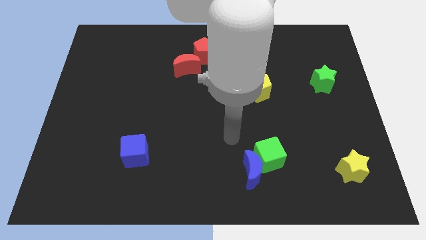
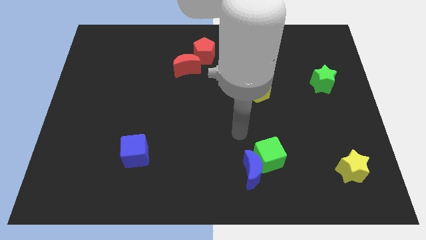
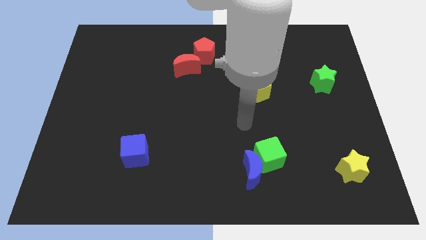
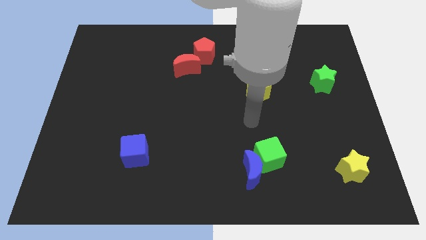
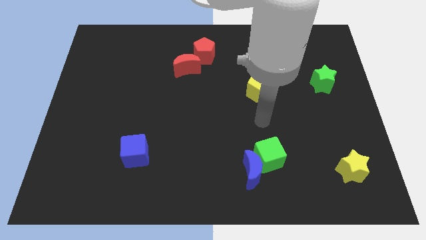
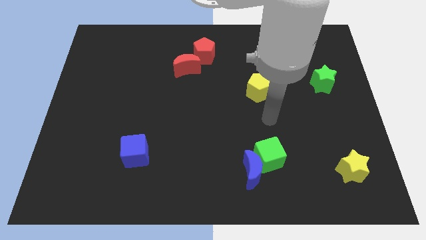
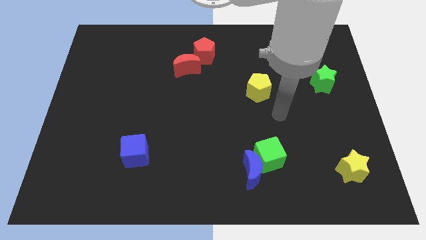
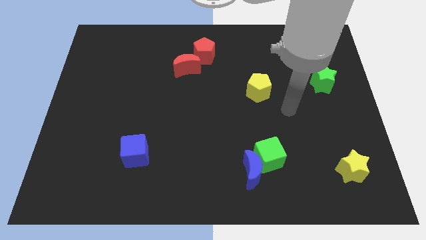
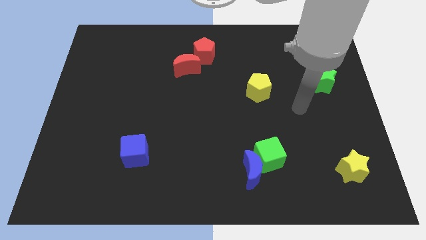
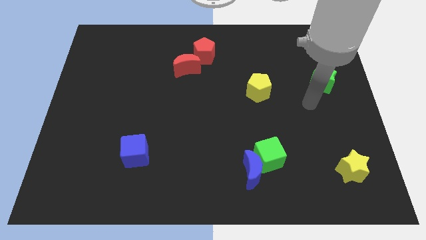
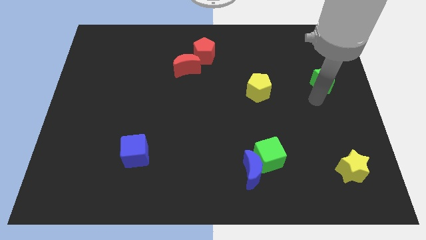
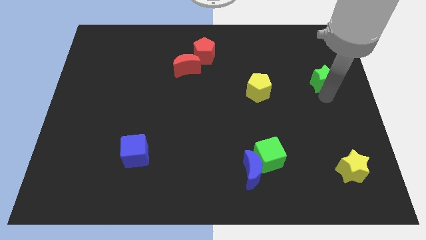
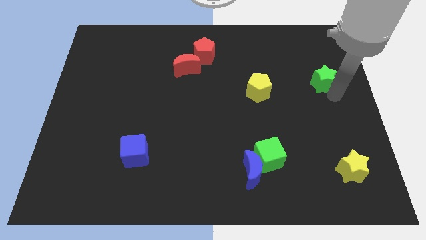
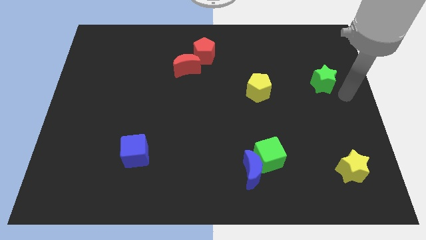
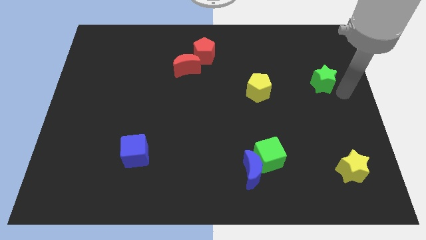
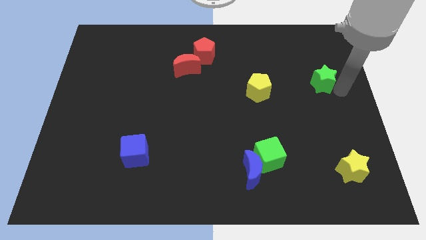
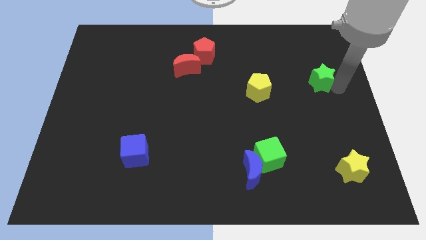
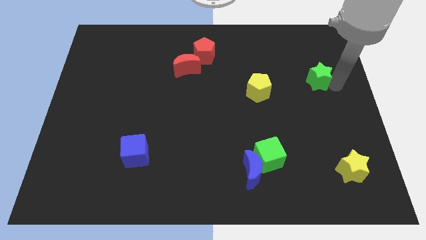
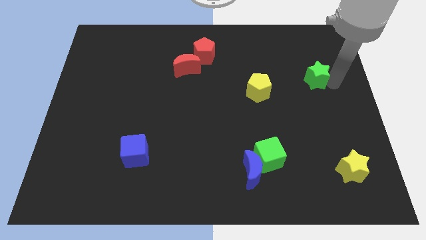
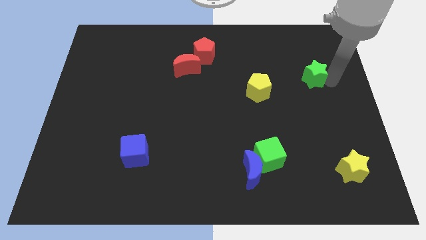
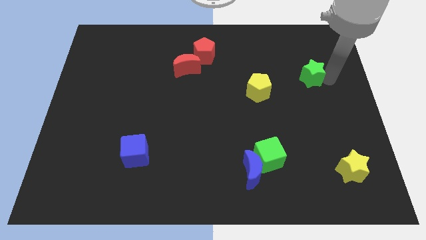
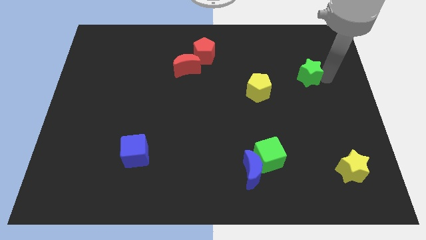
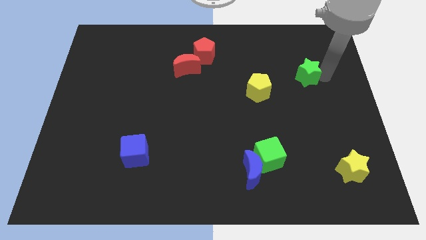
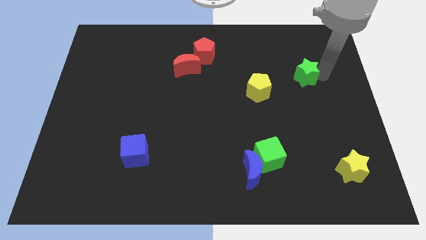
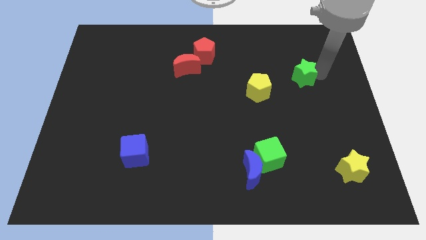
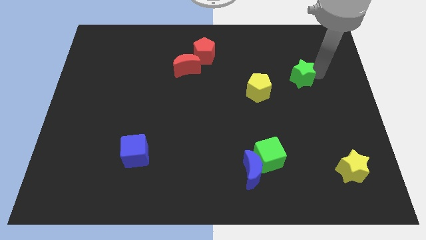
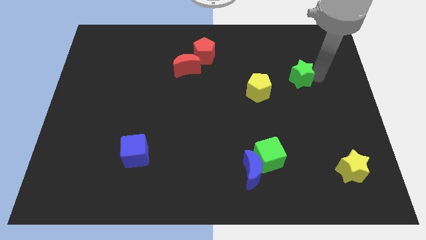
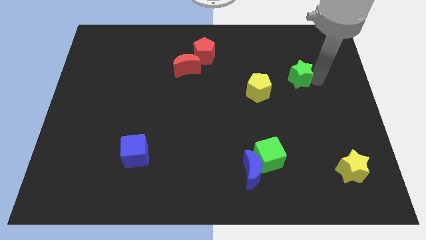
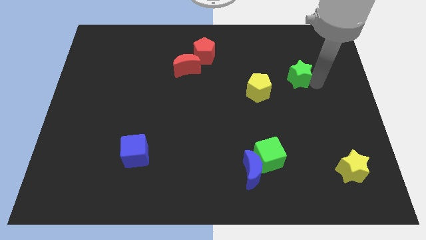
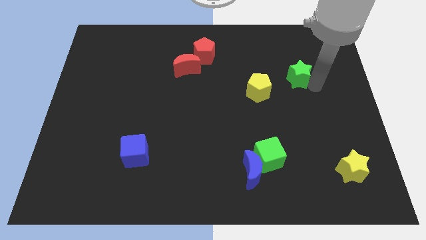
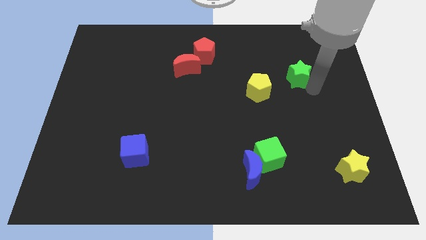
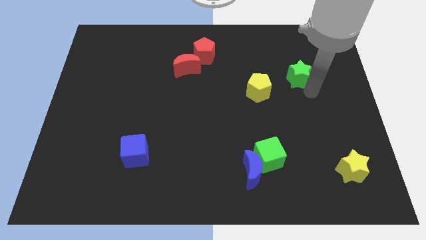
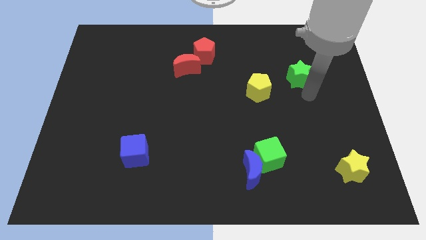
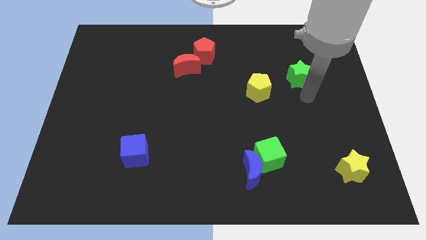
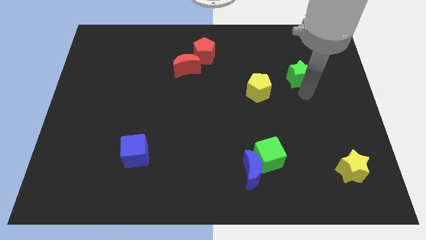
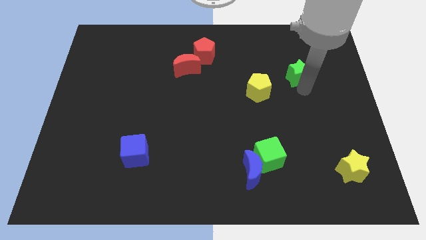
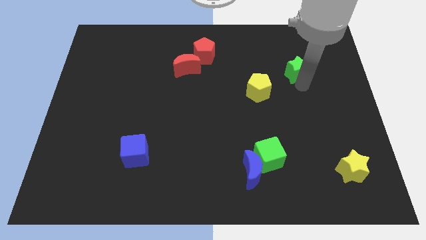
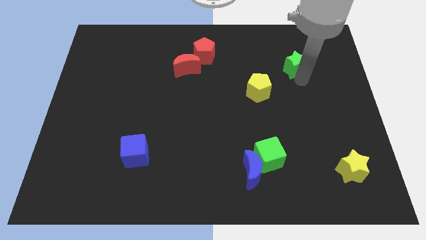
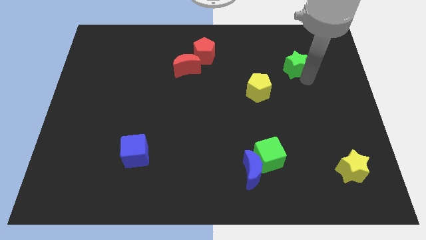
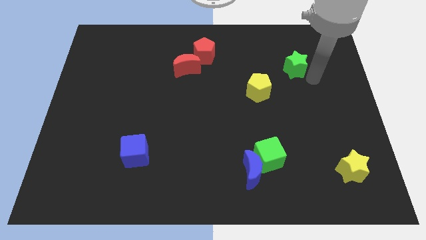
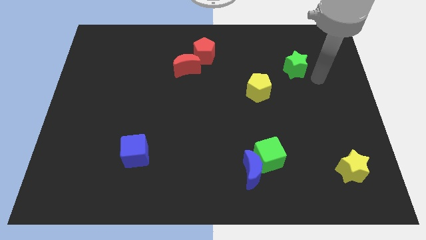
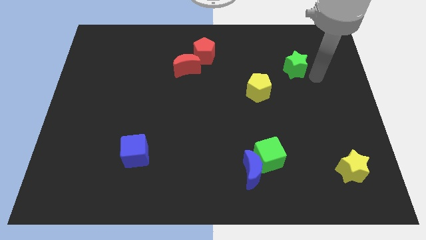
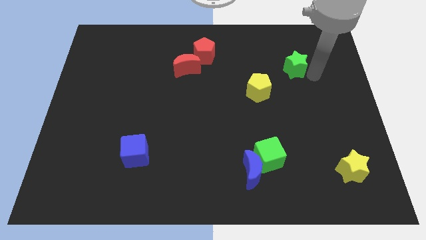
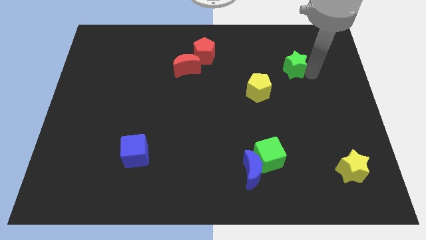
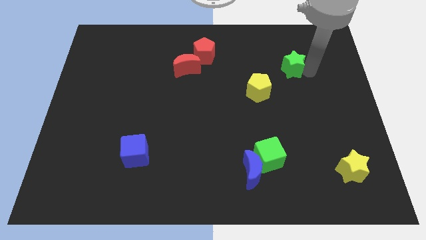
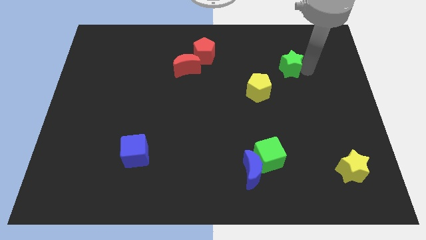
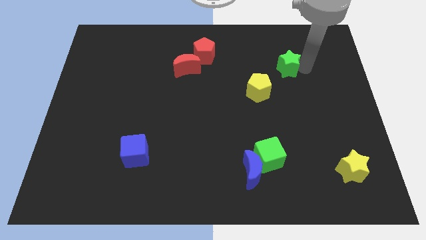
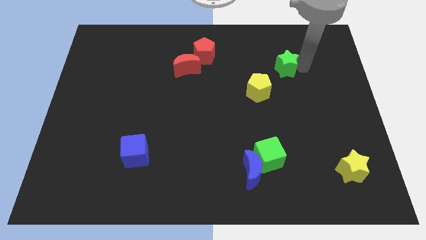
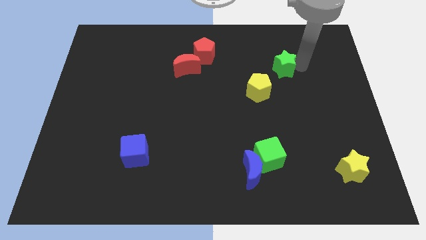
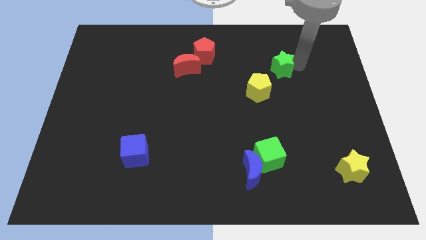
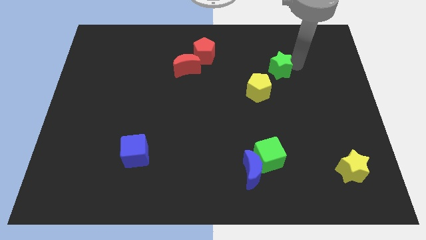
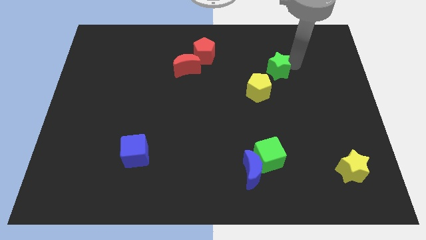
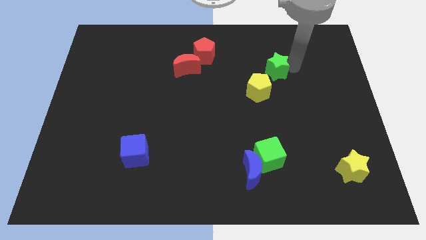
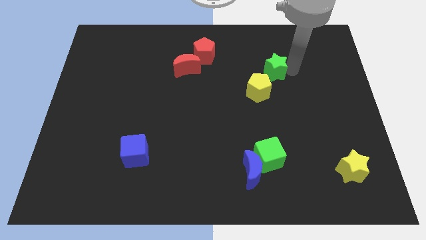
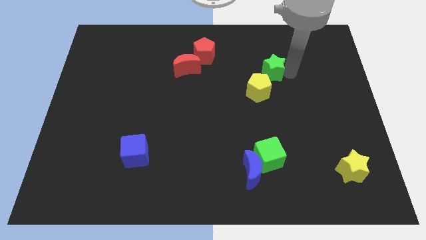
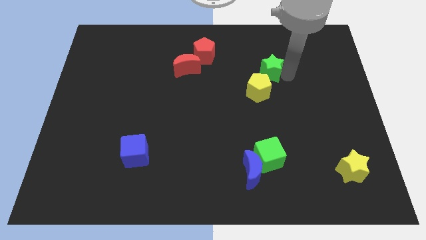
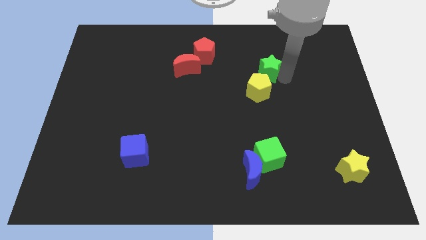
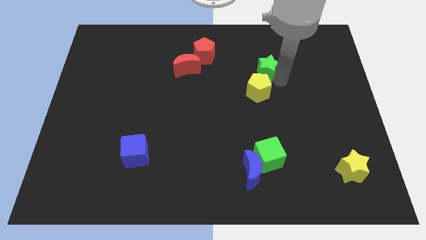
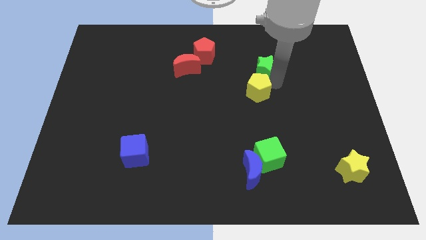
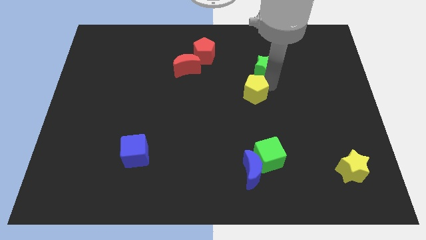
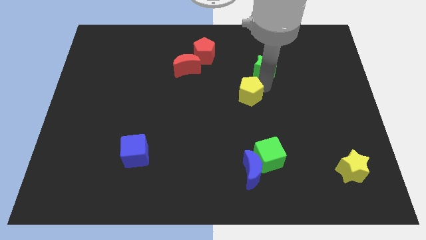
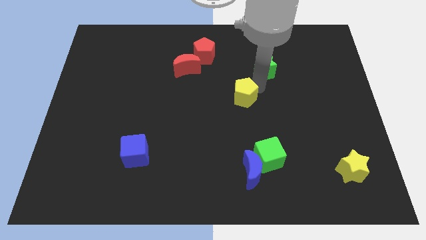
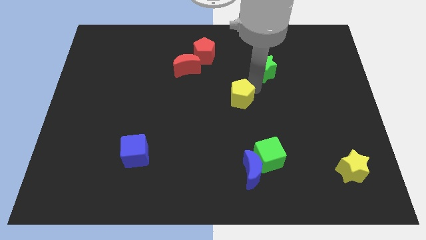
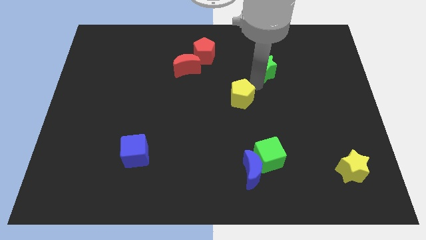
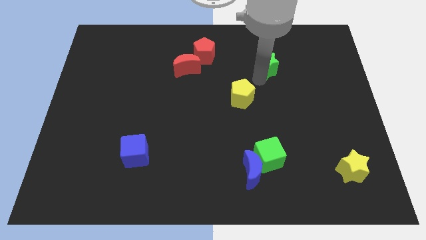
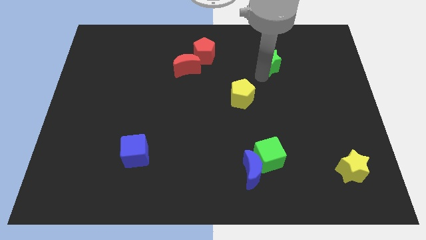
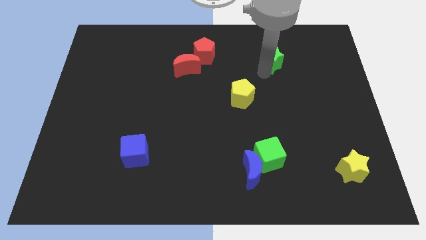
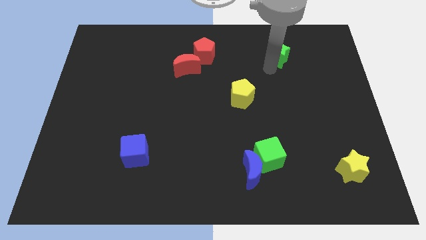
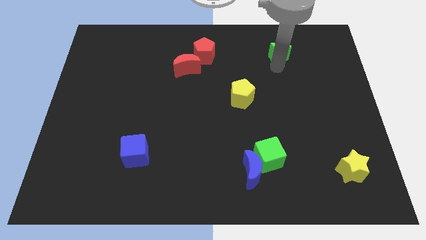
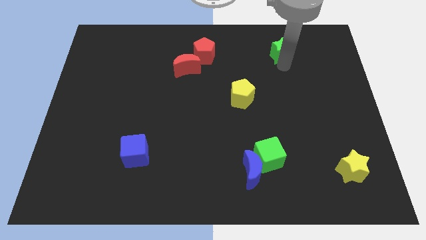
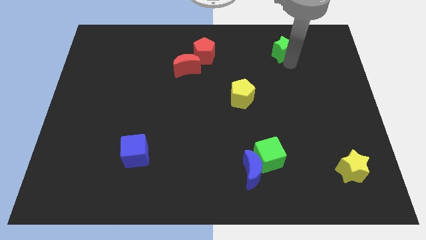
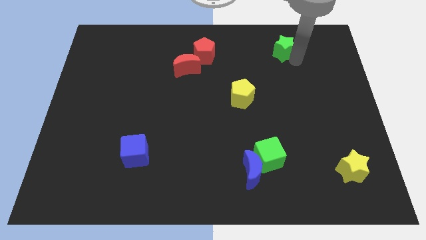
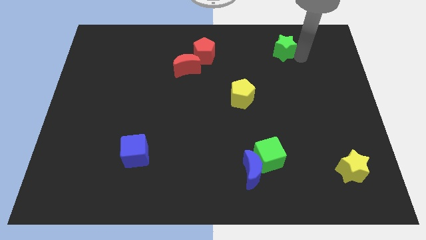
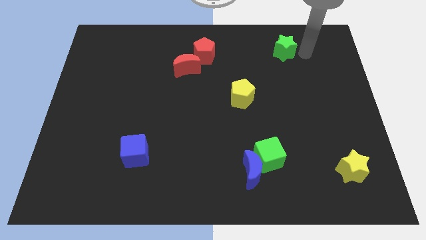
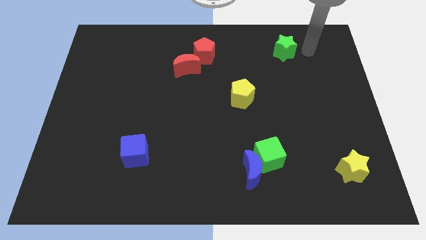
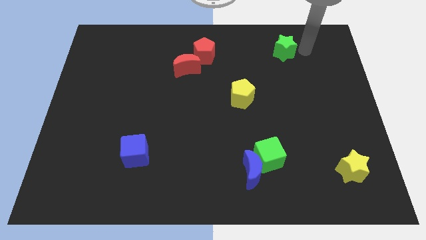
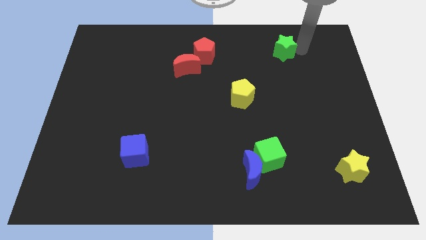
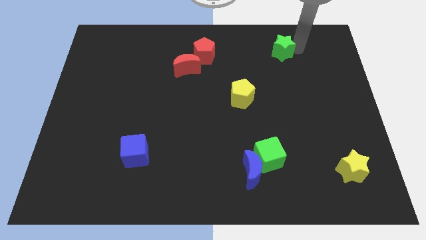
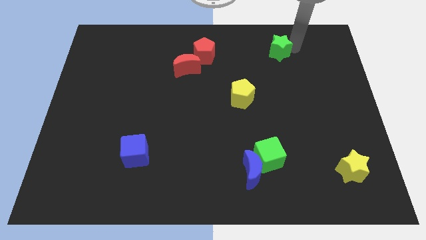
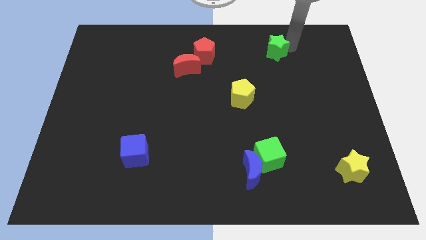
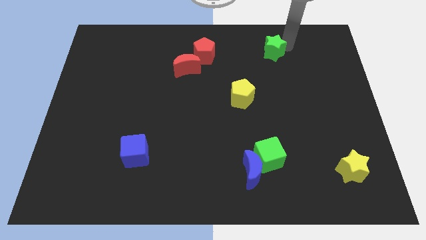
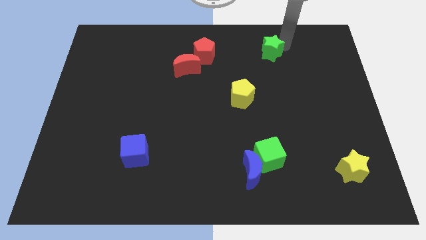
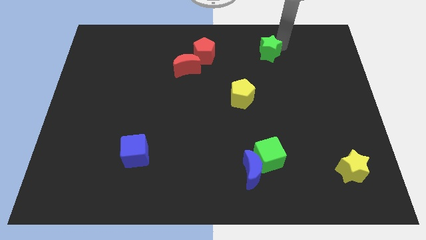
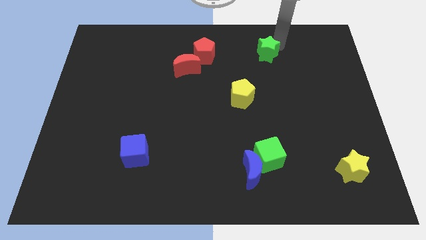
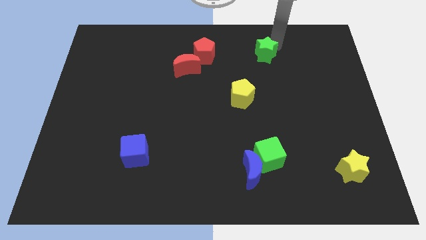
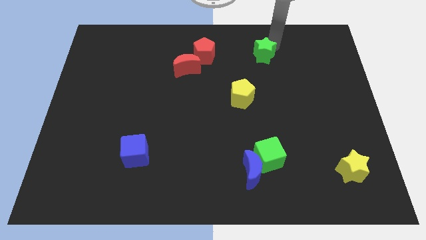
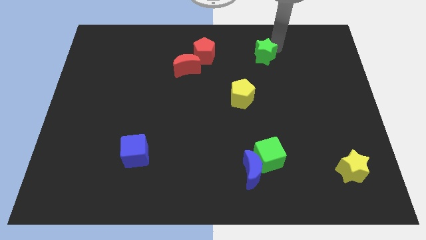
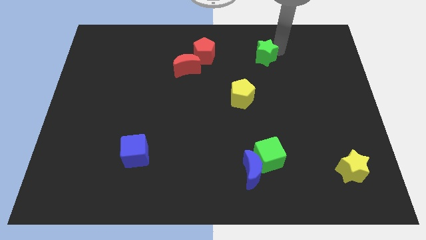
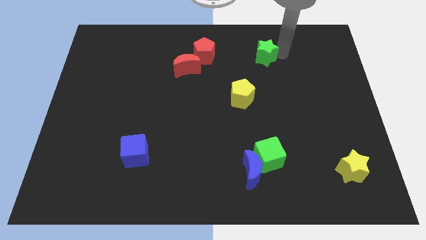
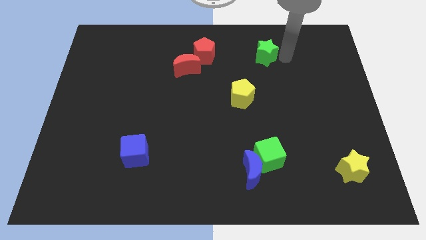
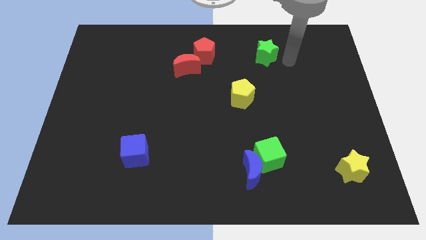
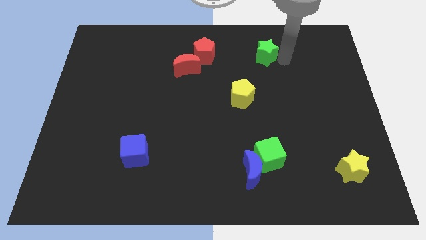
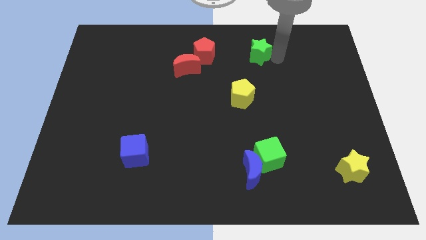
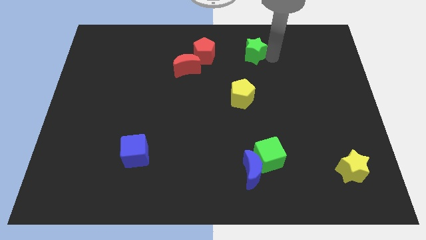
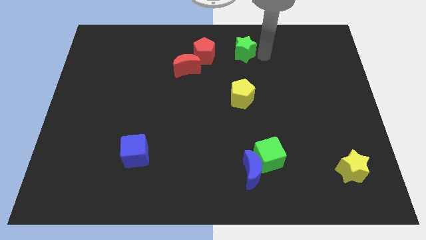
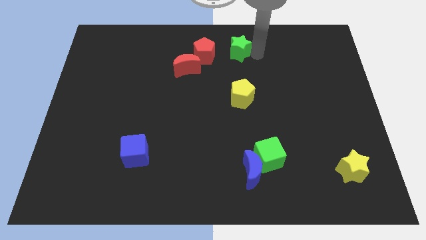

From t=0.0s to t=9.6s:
move the green star to the top
